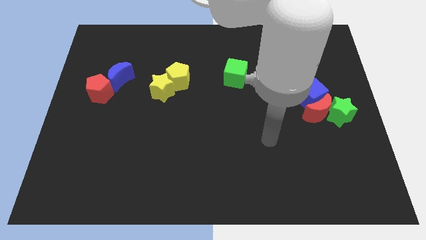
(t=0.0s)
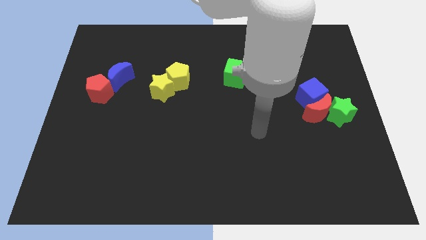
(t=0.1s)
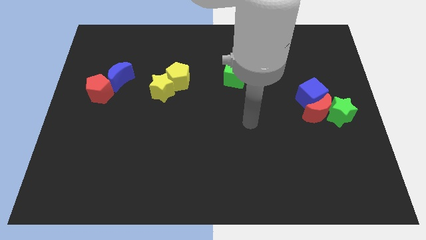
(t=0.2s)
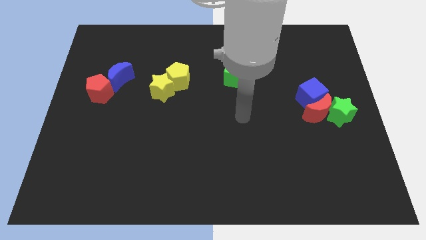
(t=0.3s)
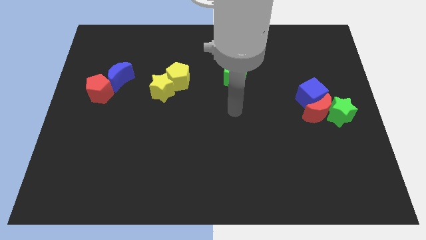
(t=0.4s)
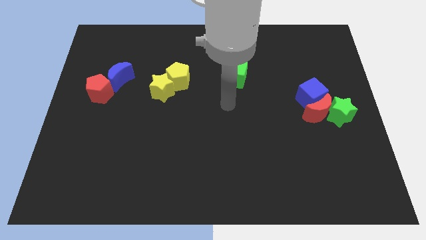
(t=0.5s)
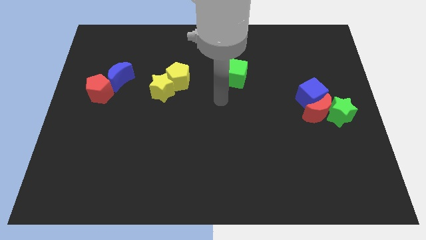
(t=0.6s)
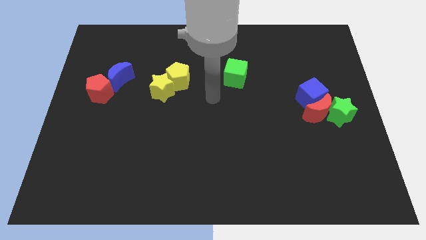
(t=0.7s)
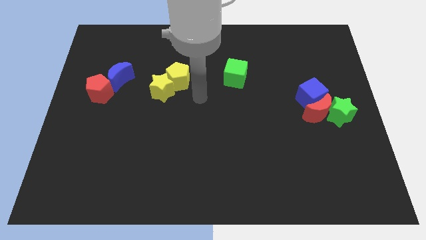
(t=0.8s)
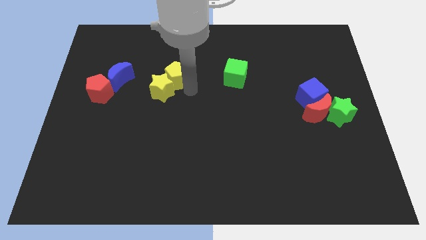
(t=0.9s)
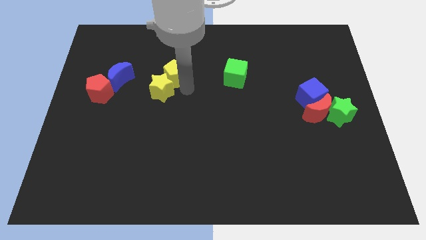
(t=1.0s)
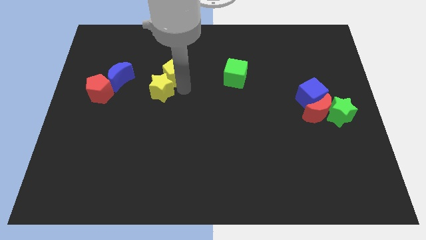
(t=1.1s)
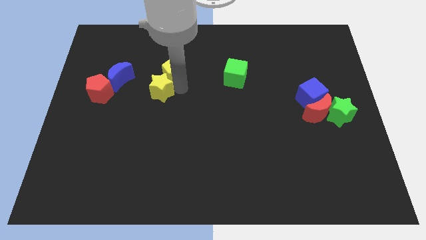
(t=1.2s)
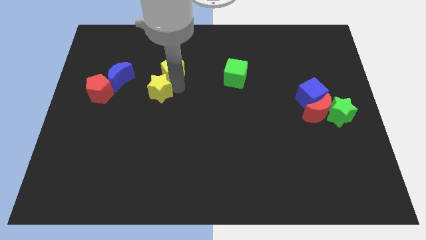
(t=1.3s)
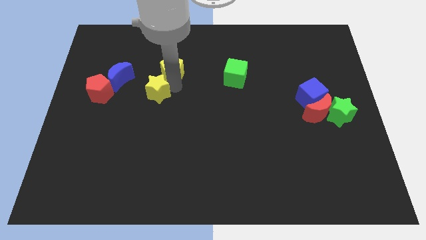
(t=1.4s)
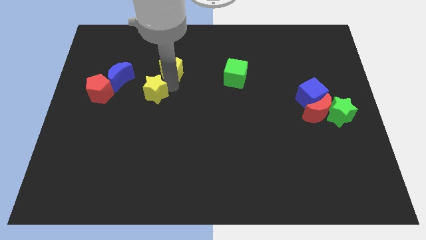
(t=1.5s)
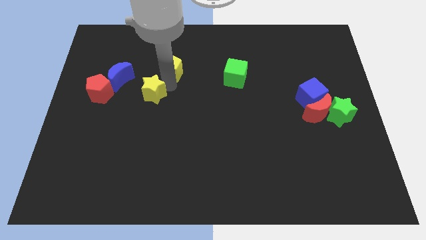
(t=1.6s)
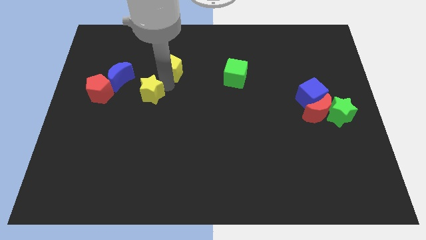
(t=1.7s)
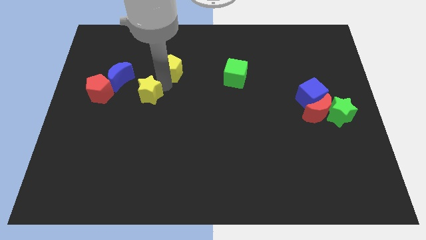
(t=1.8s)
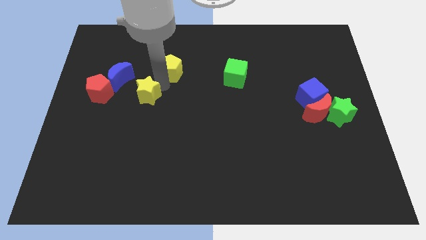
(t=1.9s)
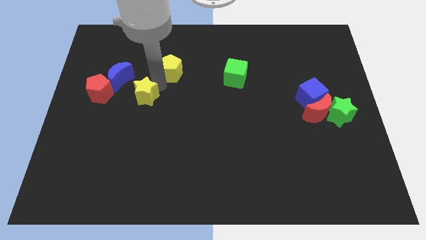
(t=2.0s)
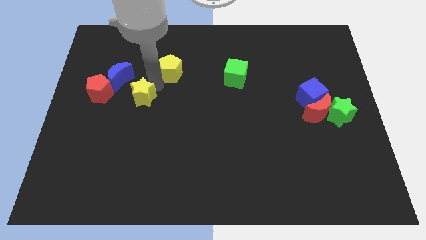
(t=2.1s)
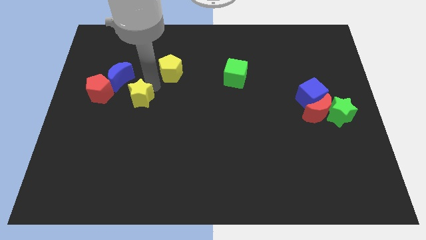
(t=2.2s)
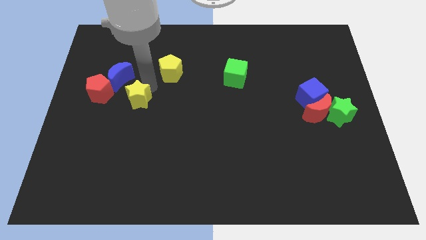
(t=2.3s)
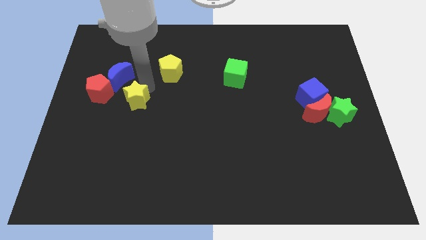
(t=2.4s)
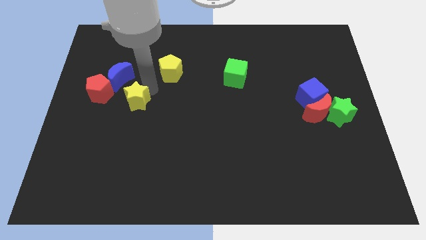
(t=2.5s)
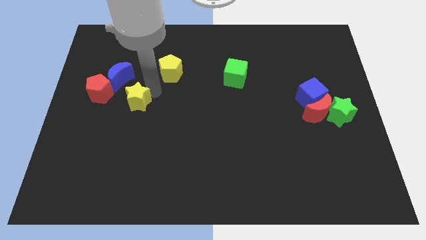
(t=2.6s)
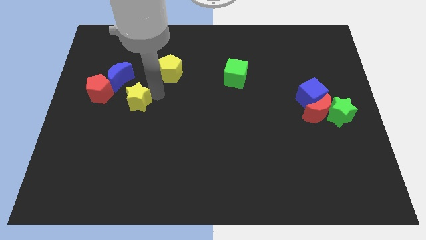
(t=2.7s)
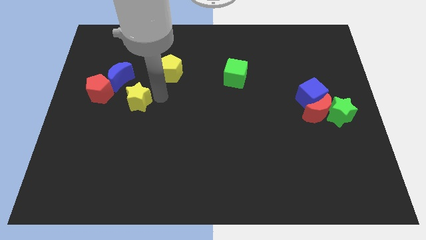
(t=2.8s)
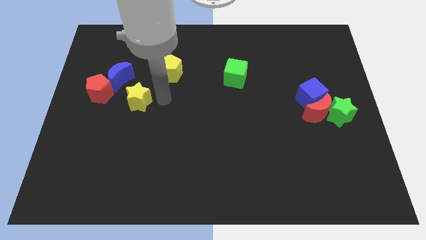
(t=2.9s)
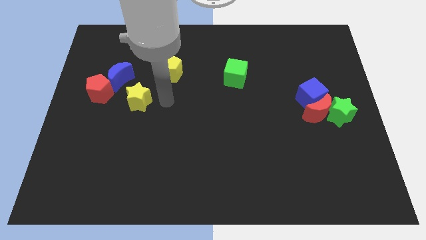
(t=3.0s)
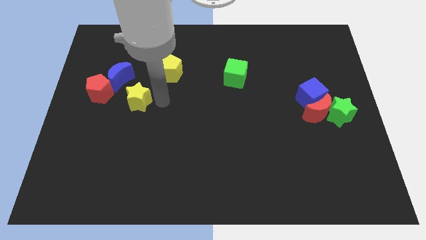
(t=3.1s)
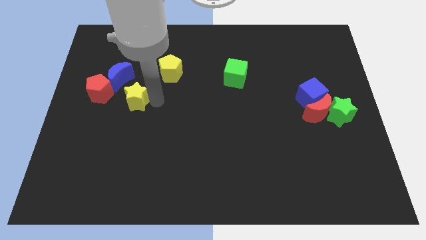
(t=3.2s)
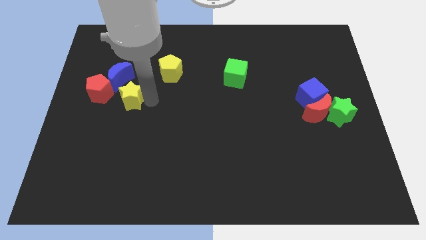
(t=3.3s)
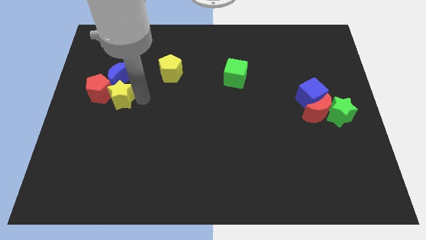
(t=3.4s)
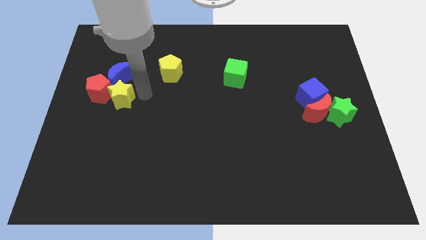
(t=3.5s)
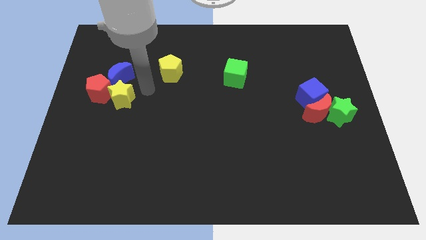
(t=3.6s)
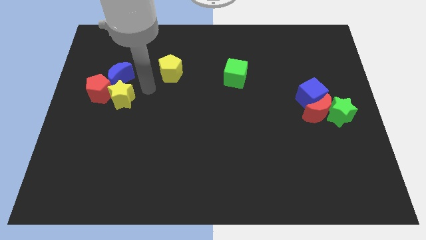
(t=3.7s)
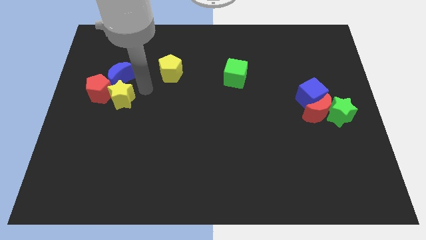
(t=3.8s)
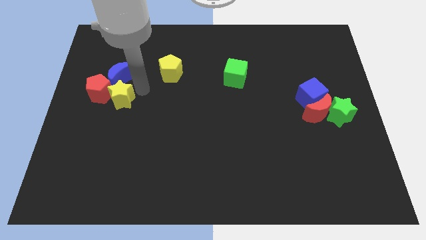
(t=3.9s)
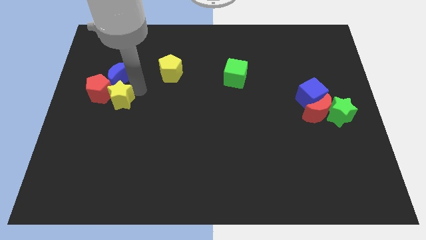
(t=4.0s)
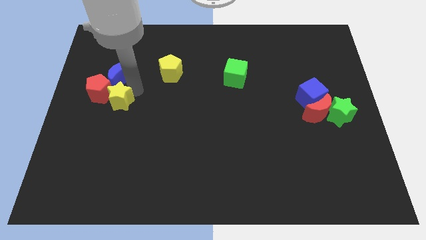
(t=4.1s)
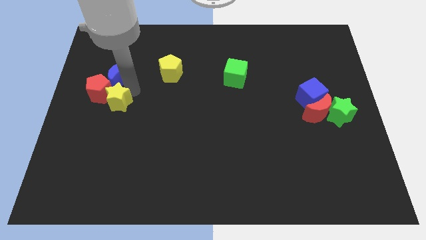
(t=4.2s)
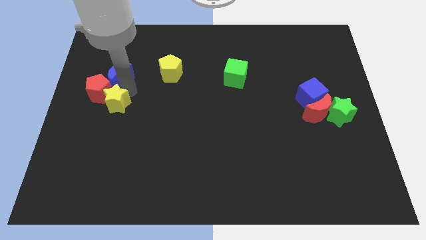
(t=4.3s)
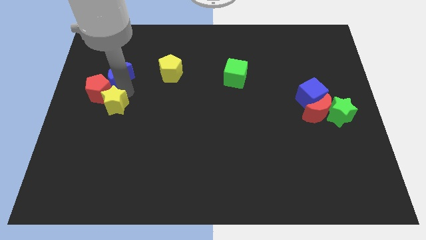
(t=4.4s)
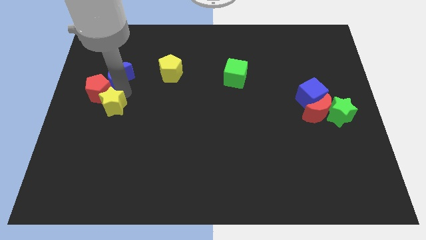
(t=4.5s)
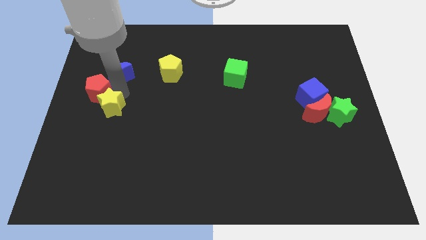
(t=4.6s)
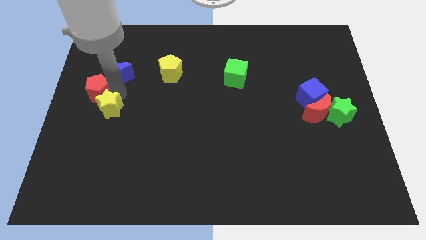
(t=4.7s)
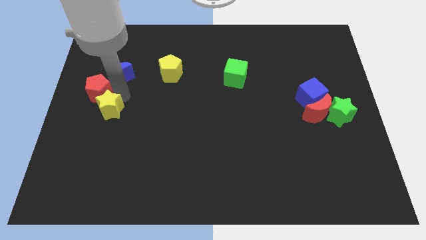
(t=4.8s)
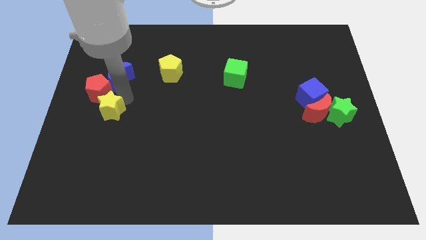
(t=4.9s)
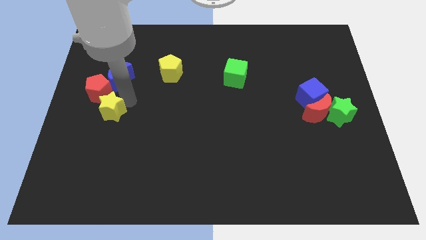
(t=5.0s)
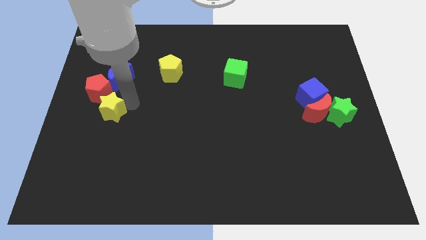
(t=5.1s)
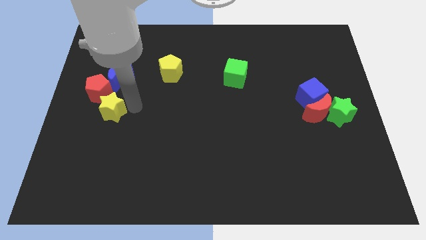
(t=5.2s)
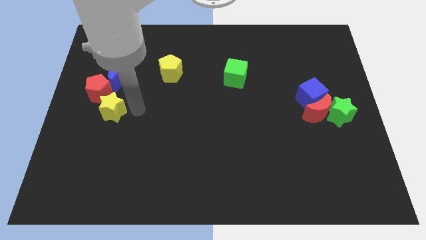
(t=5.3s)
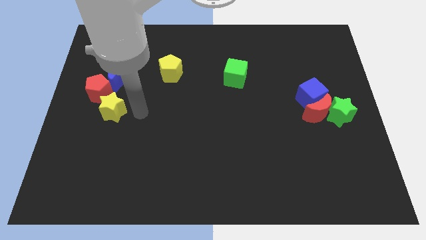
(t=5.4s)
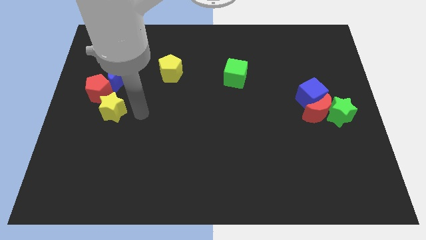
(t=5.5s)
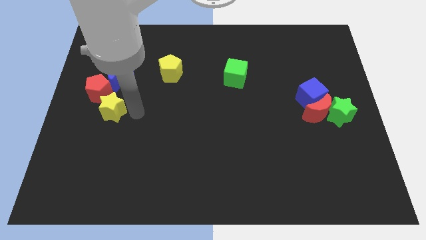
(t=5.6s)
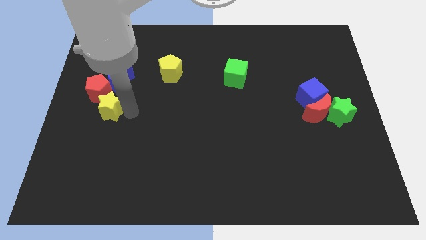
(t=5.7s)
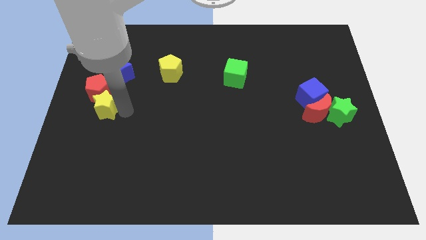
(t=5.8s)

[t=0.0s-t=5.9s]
push the yellow star to the left side of the board
